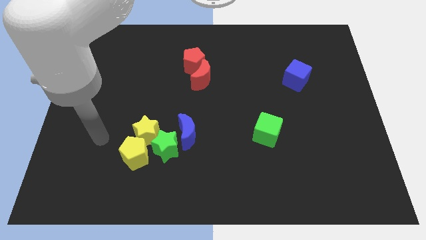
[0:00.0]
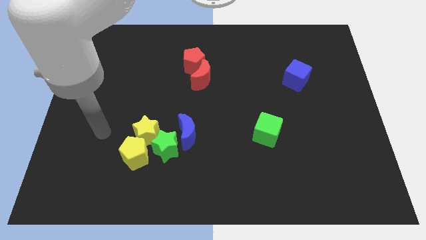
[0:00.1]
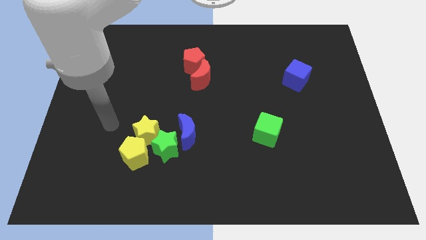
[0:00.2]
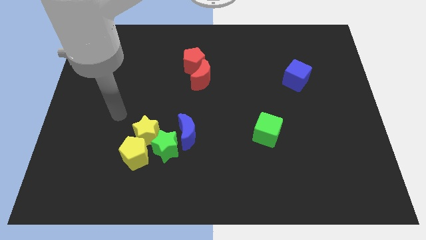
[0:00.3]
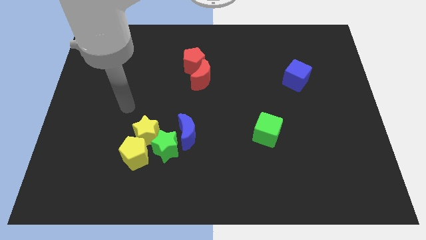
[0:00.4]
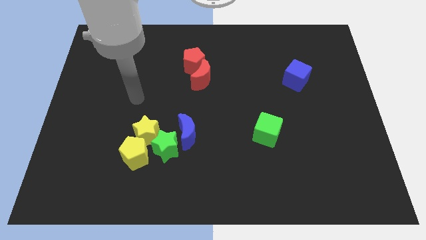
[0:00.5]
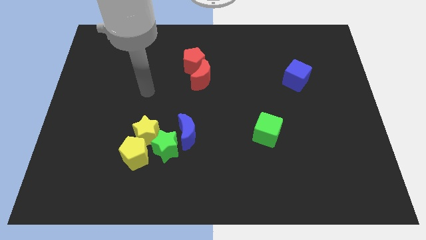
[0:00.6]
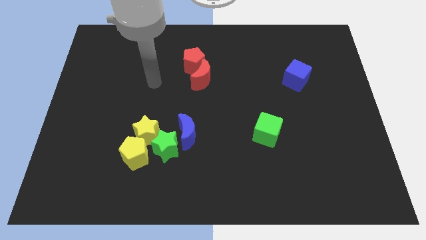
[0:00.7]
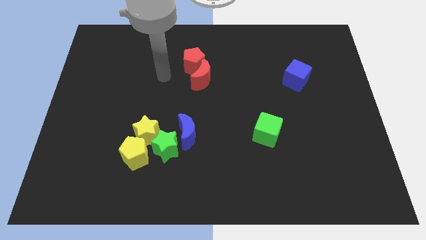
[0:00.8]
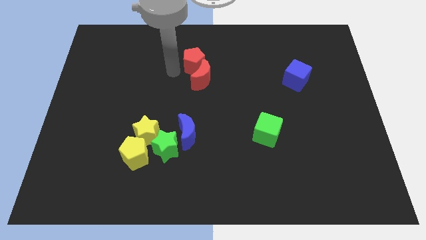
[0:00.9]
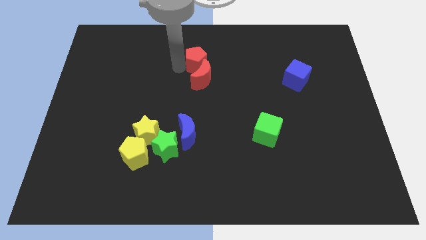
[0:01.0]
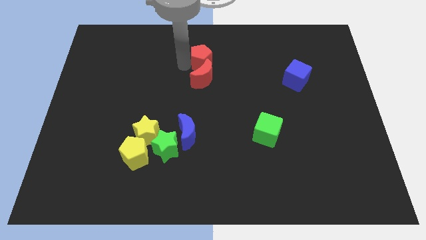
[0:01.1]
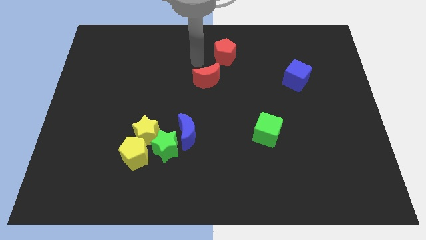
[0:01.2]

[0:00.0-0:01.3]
move the red moon away from the red pentagon

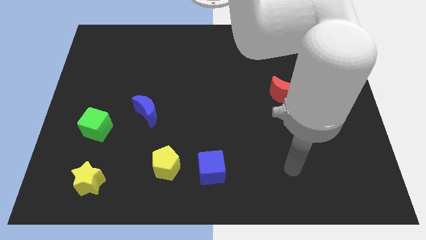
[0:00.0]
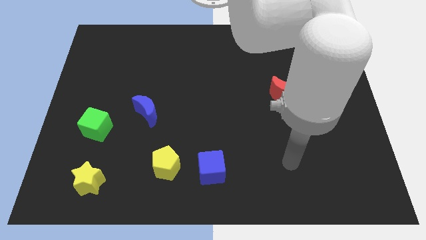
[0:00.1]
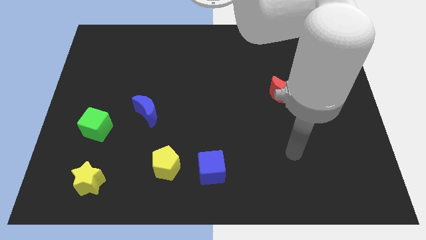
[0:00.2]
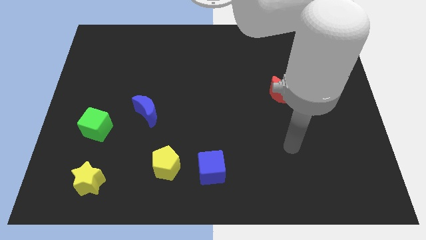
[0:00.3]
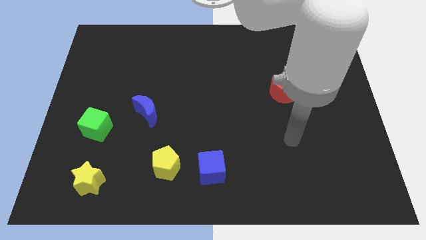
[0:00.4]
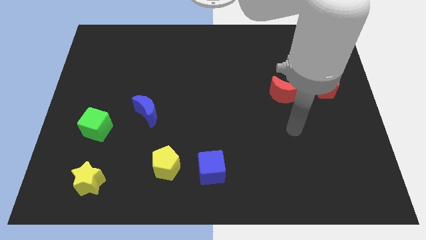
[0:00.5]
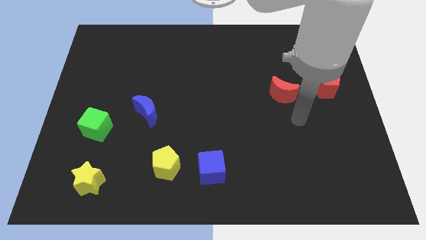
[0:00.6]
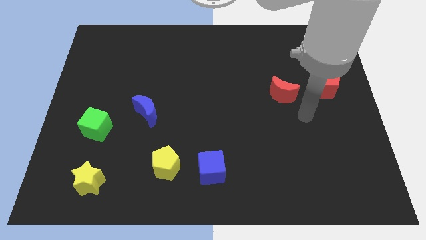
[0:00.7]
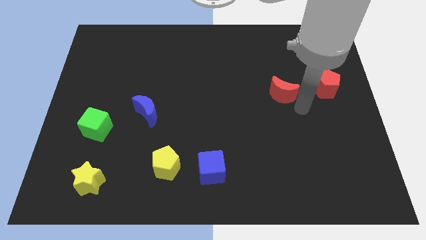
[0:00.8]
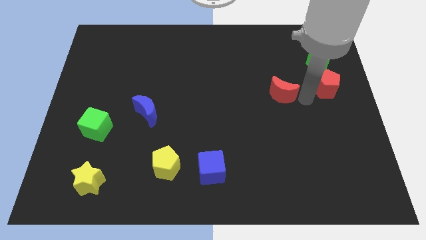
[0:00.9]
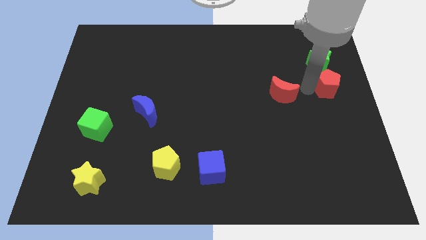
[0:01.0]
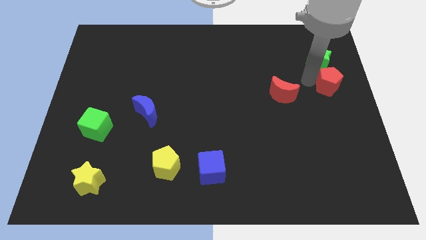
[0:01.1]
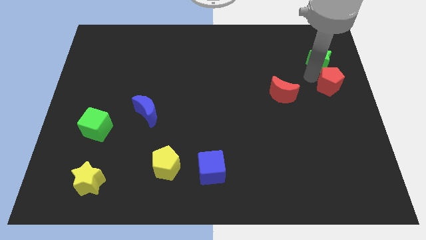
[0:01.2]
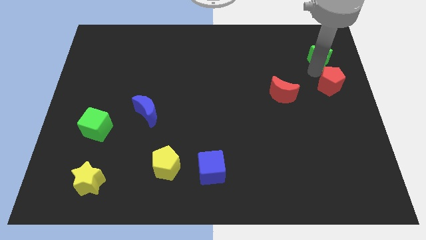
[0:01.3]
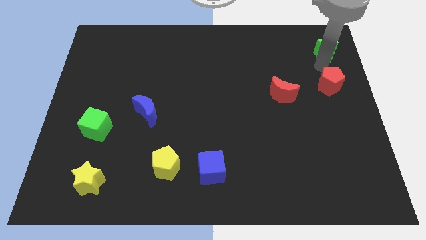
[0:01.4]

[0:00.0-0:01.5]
move the red pentagon away from the green star

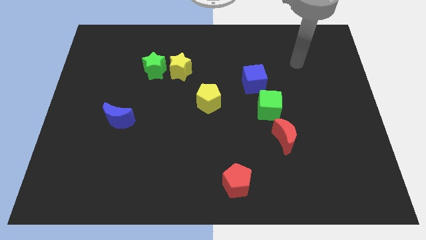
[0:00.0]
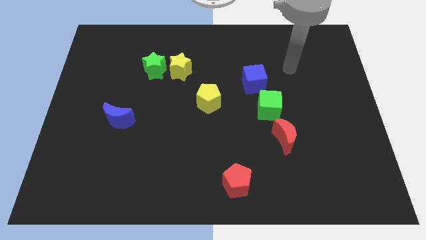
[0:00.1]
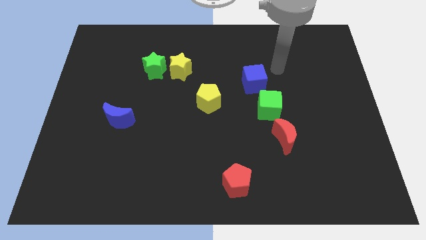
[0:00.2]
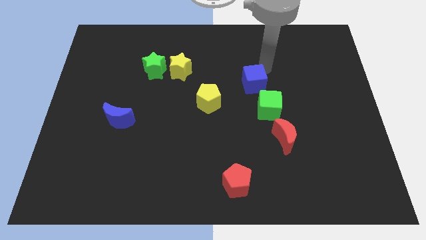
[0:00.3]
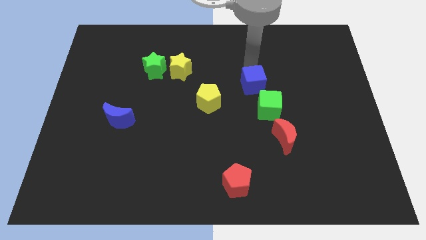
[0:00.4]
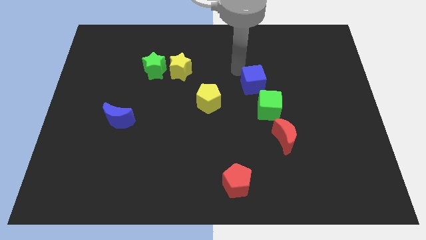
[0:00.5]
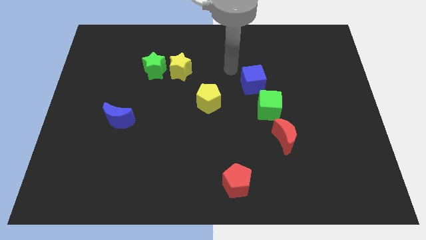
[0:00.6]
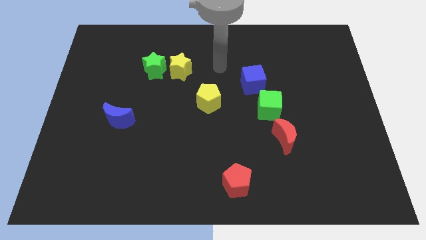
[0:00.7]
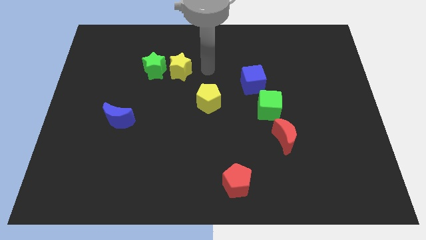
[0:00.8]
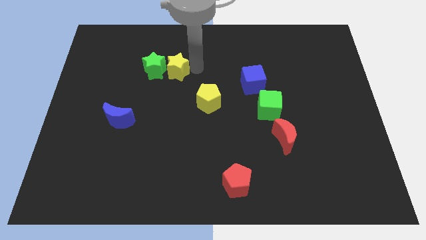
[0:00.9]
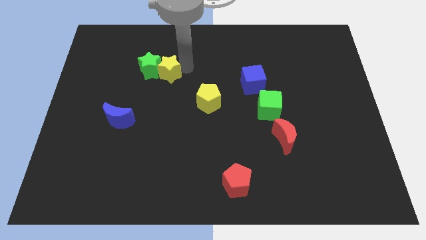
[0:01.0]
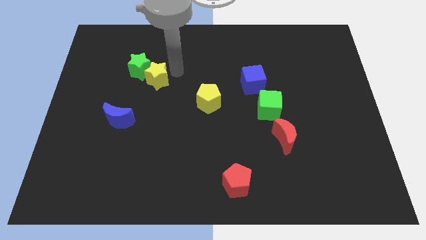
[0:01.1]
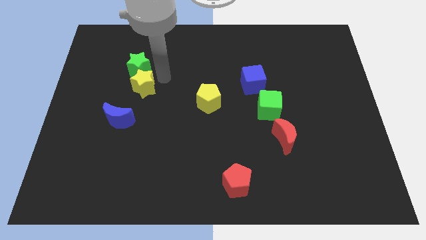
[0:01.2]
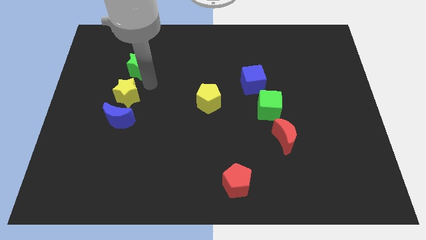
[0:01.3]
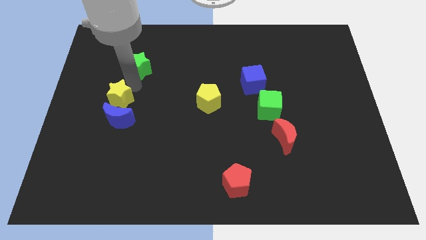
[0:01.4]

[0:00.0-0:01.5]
pull the green star apart from the yellow star

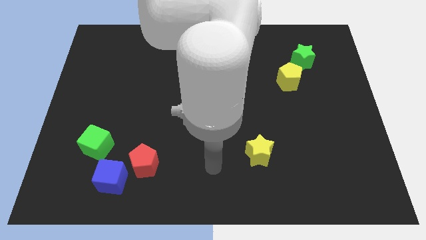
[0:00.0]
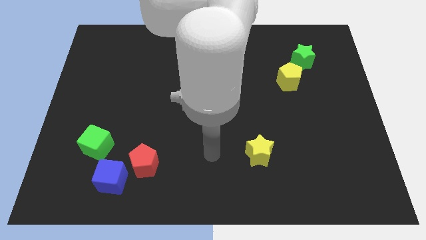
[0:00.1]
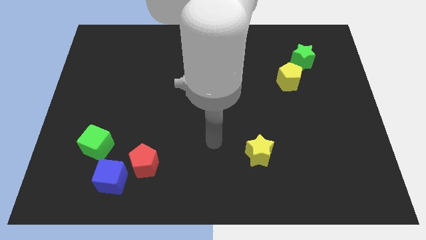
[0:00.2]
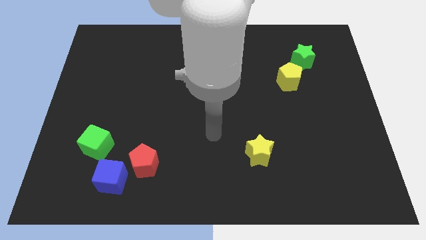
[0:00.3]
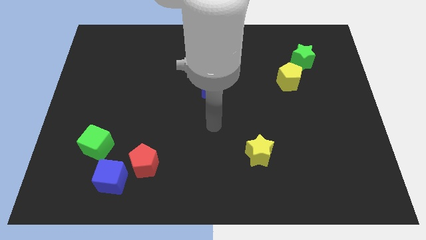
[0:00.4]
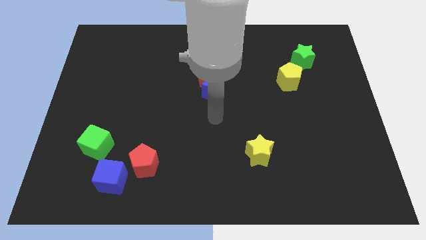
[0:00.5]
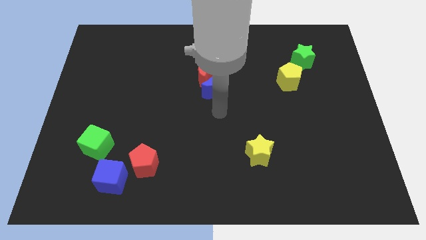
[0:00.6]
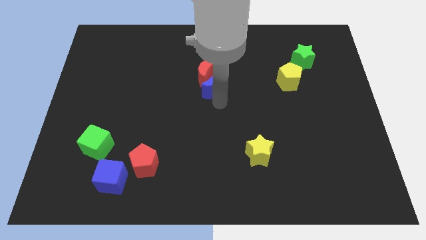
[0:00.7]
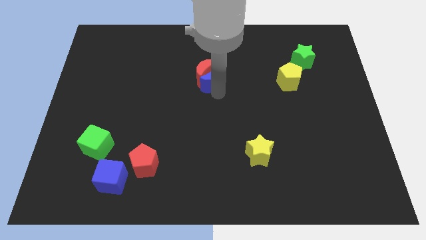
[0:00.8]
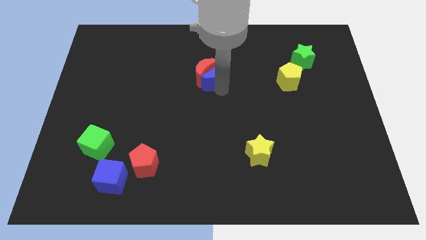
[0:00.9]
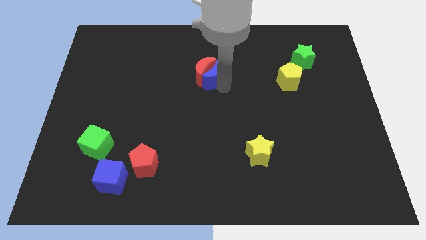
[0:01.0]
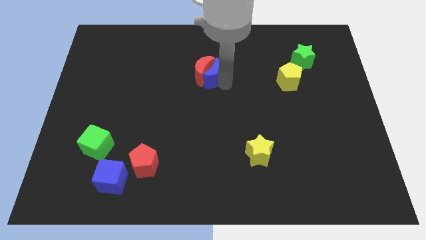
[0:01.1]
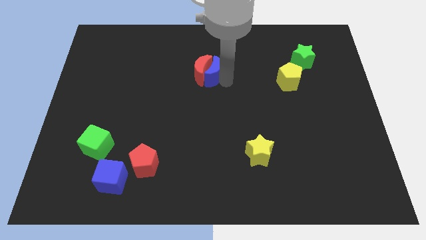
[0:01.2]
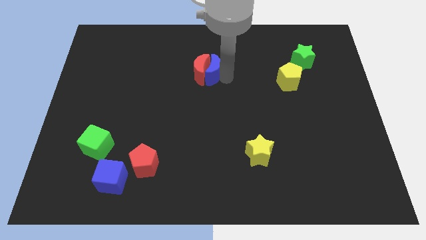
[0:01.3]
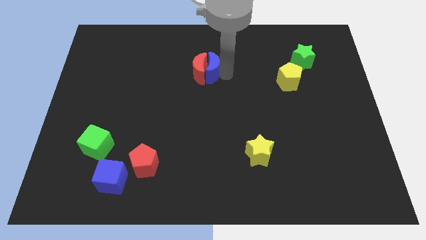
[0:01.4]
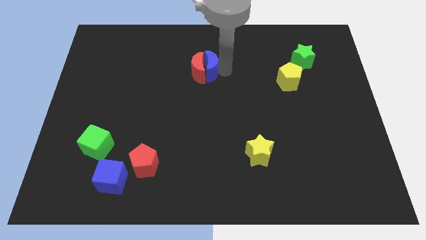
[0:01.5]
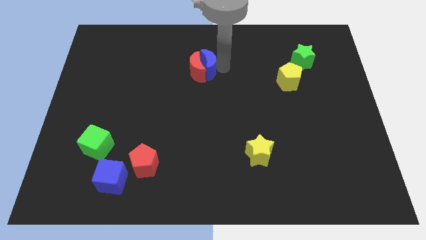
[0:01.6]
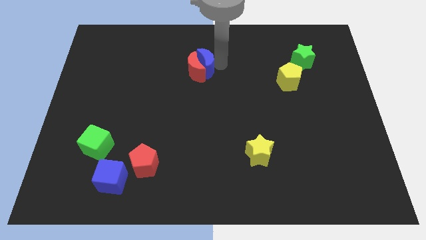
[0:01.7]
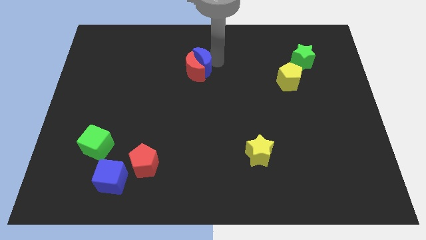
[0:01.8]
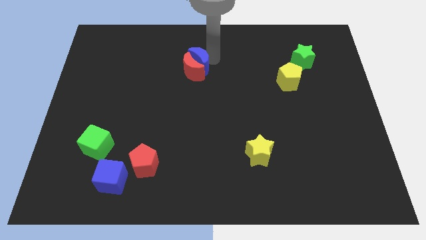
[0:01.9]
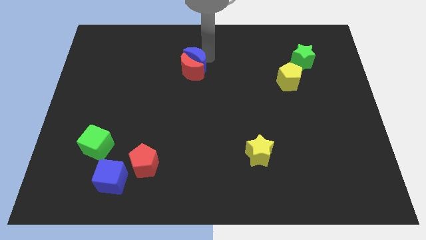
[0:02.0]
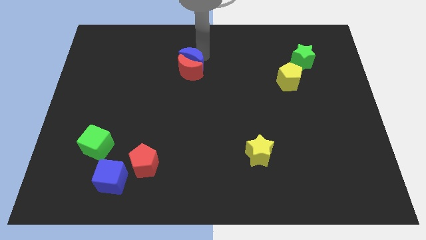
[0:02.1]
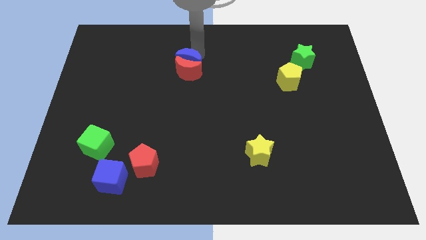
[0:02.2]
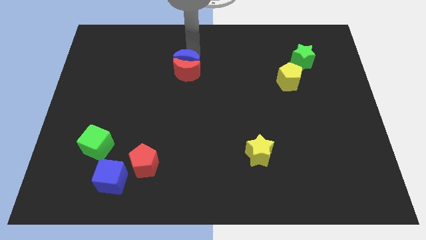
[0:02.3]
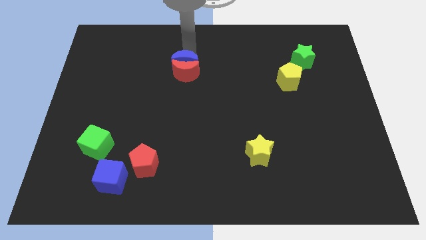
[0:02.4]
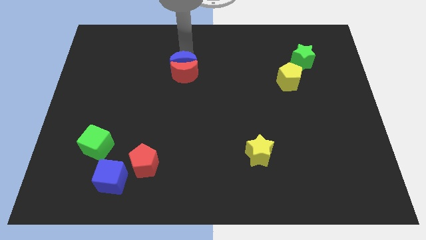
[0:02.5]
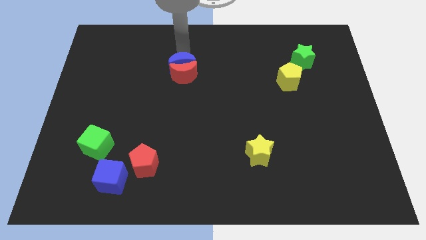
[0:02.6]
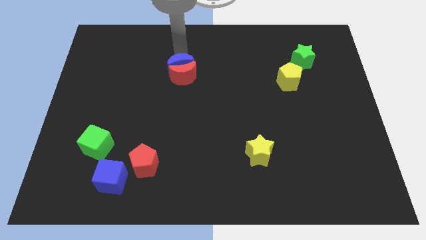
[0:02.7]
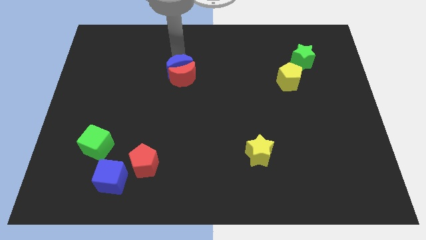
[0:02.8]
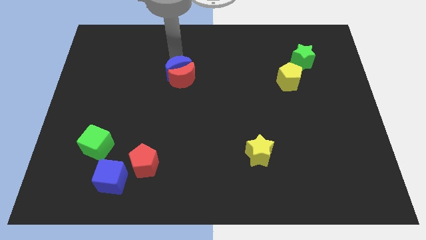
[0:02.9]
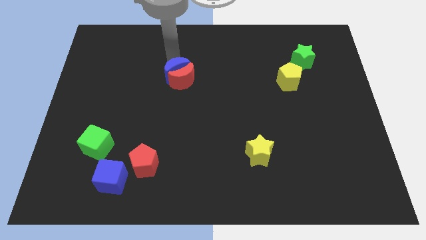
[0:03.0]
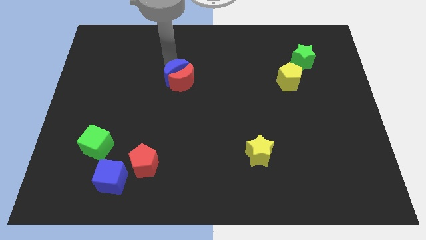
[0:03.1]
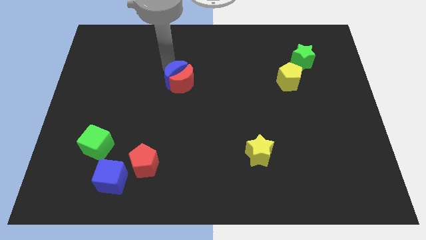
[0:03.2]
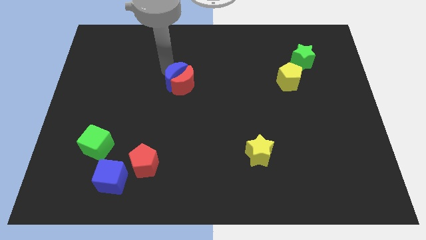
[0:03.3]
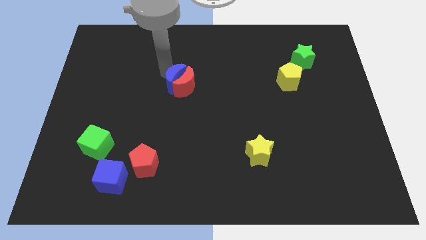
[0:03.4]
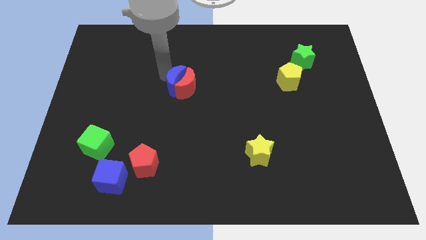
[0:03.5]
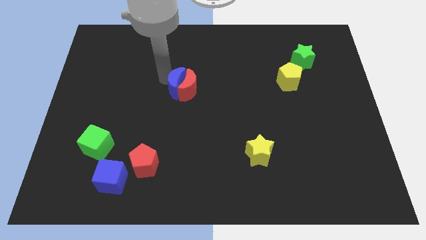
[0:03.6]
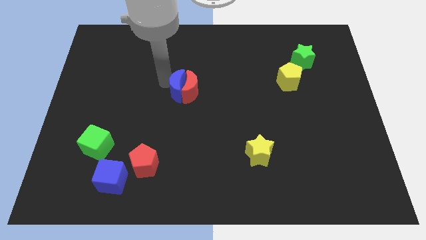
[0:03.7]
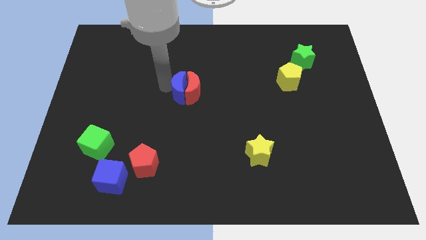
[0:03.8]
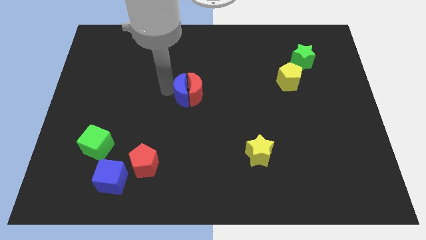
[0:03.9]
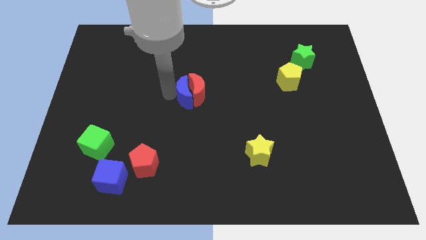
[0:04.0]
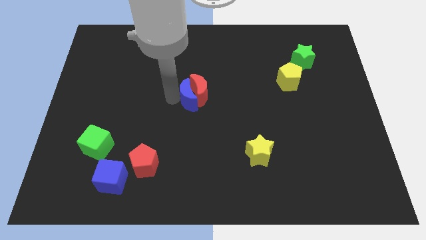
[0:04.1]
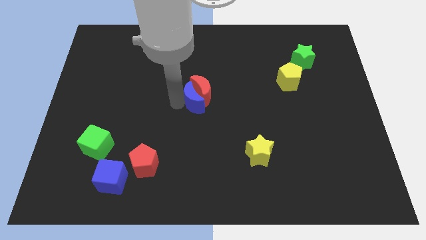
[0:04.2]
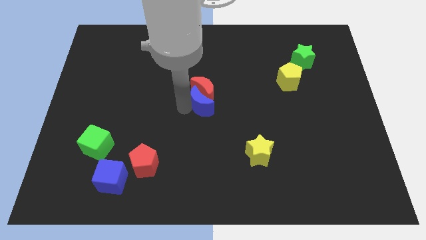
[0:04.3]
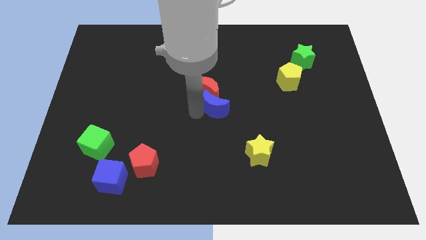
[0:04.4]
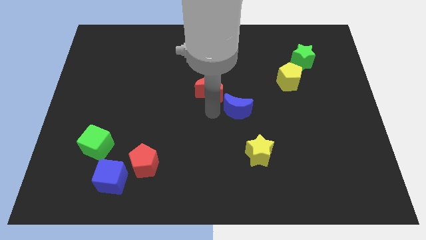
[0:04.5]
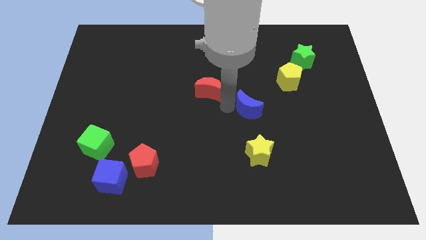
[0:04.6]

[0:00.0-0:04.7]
move the red moon away from the blue moon

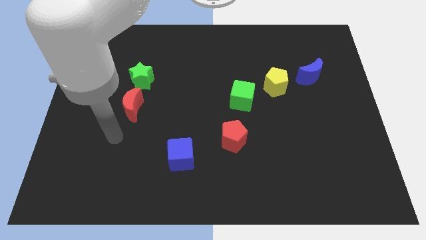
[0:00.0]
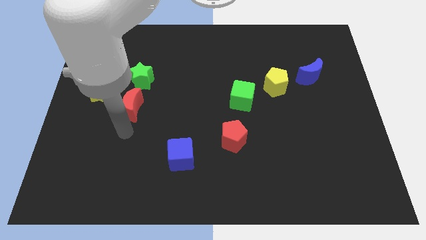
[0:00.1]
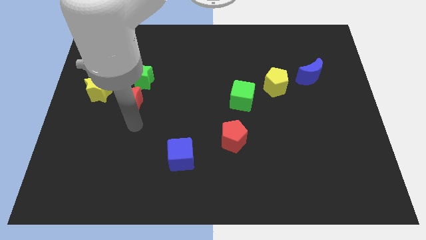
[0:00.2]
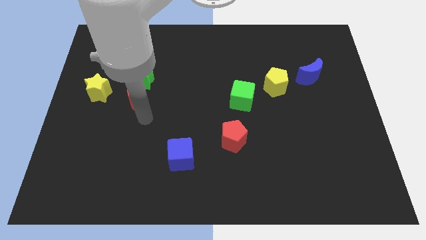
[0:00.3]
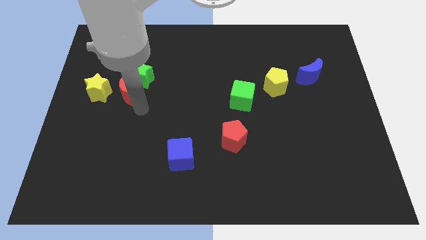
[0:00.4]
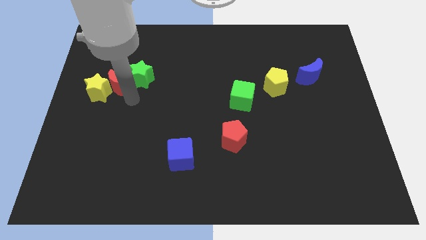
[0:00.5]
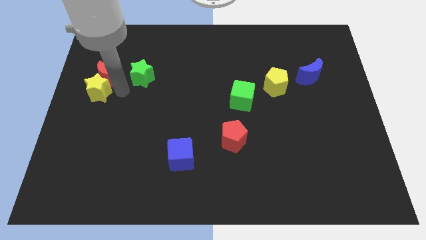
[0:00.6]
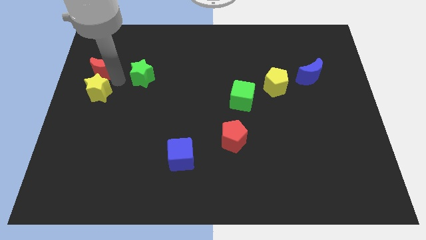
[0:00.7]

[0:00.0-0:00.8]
move the green star away from the red moon
